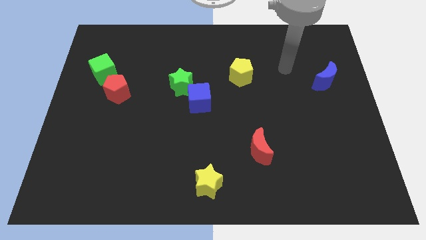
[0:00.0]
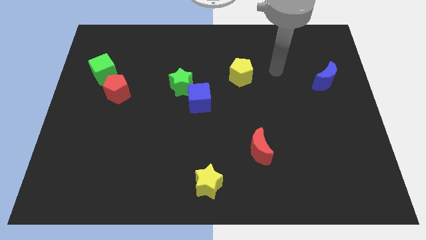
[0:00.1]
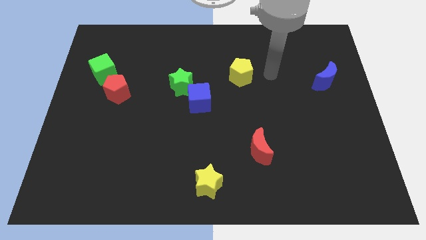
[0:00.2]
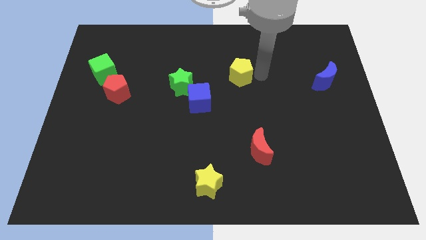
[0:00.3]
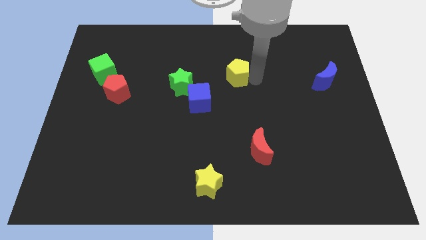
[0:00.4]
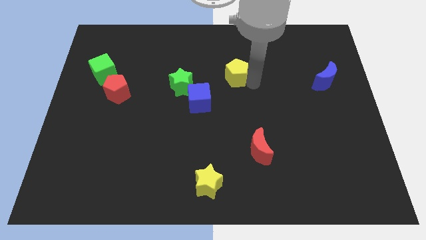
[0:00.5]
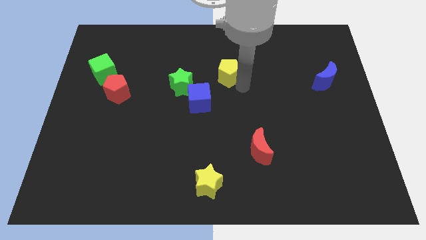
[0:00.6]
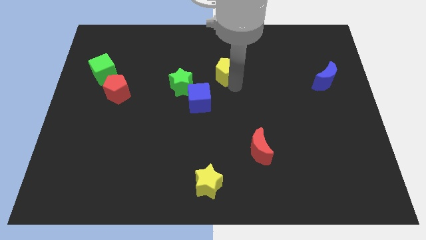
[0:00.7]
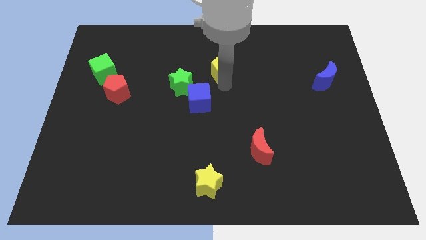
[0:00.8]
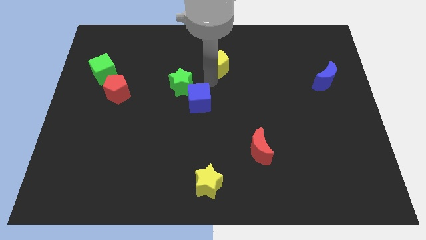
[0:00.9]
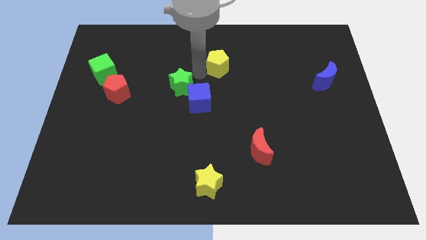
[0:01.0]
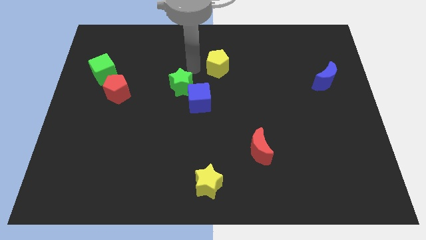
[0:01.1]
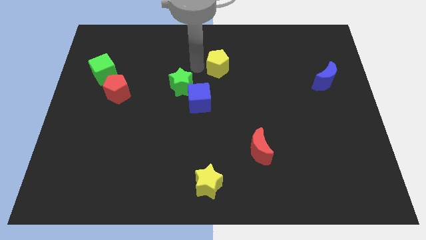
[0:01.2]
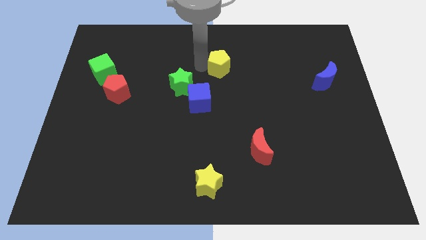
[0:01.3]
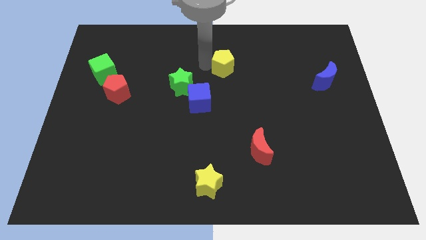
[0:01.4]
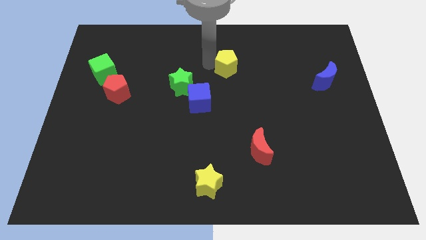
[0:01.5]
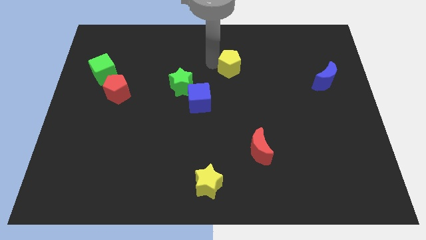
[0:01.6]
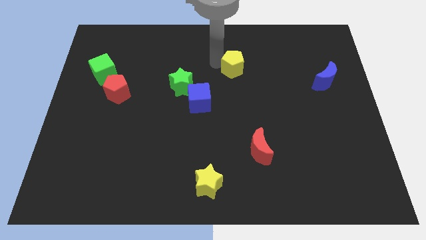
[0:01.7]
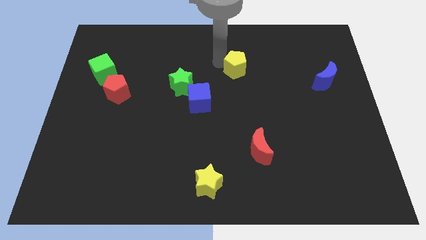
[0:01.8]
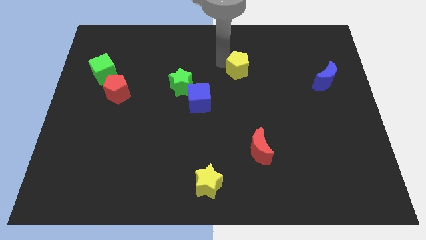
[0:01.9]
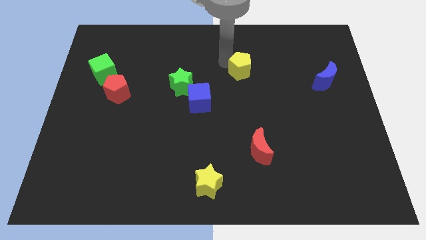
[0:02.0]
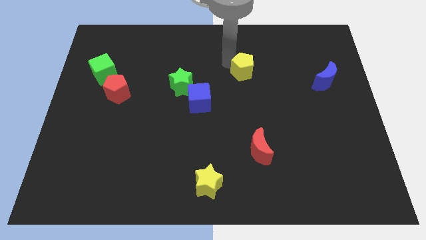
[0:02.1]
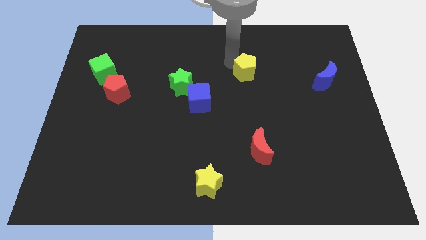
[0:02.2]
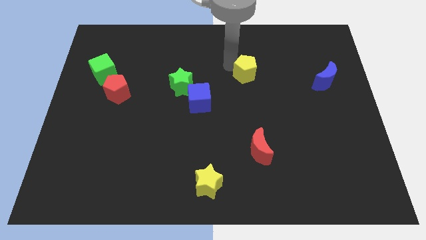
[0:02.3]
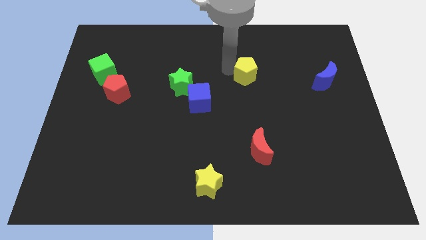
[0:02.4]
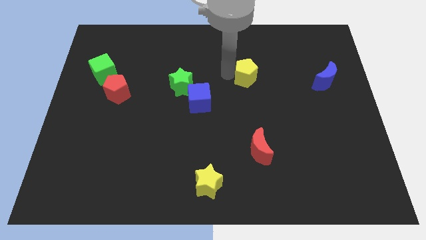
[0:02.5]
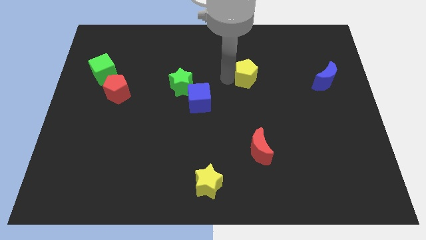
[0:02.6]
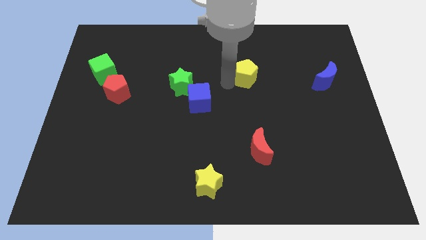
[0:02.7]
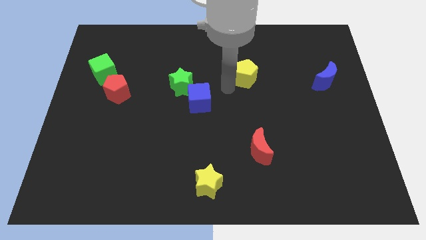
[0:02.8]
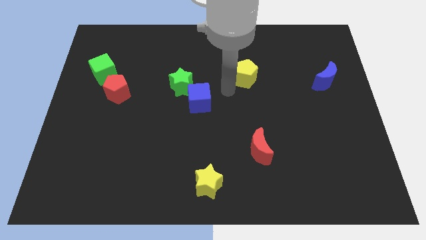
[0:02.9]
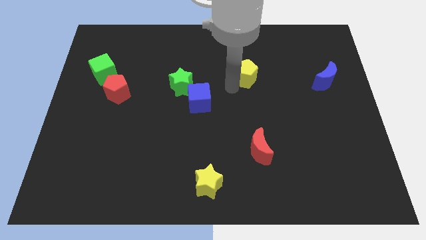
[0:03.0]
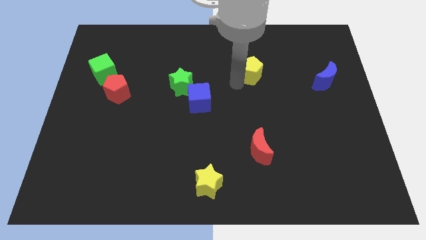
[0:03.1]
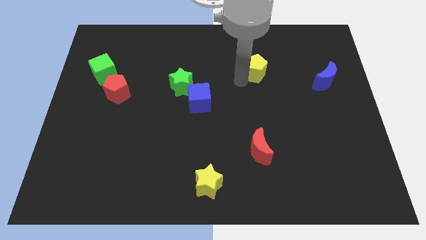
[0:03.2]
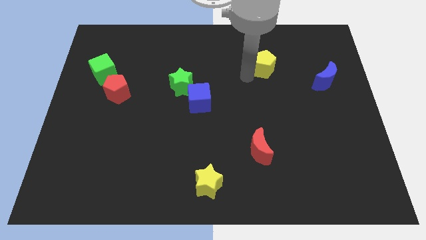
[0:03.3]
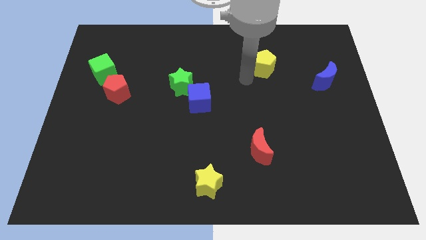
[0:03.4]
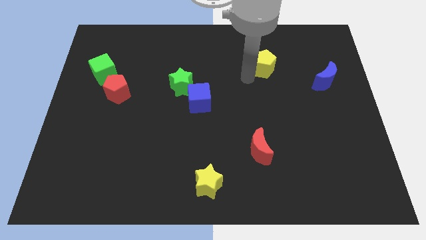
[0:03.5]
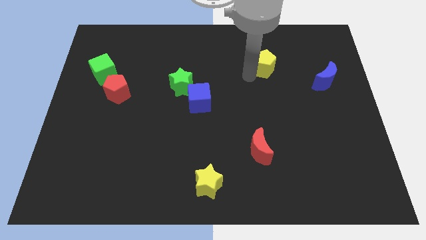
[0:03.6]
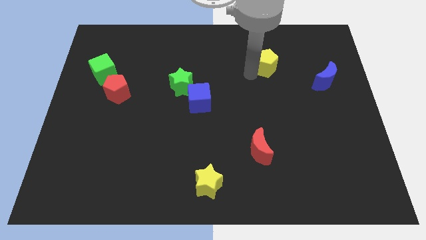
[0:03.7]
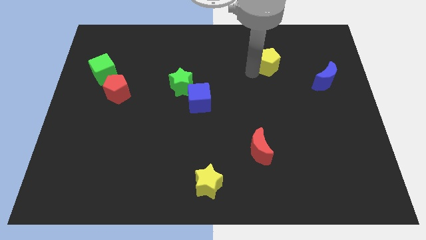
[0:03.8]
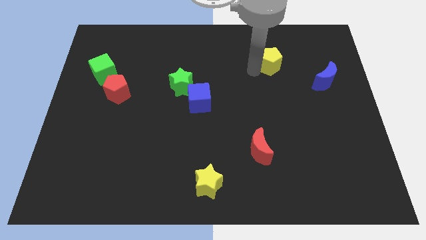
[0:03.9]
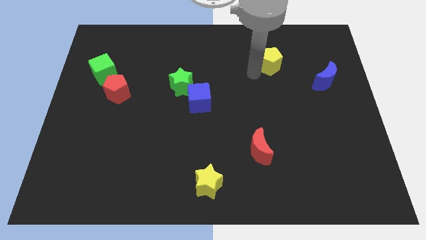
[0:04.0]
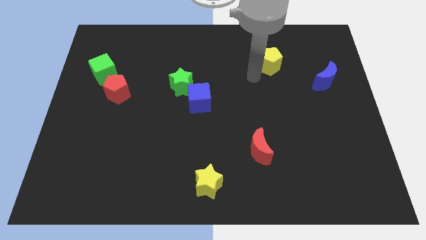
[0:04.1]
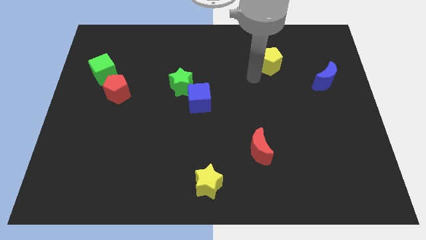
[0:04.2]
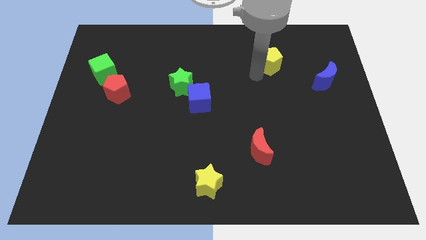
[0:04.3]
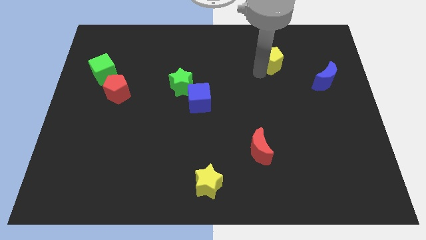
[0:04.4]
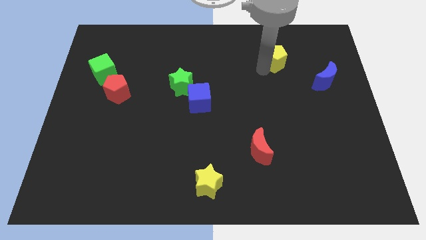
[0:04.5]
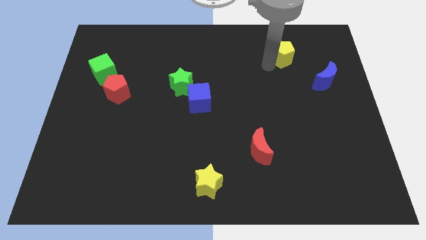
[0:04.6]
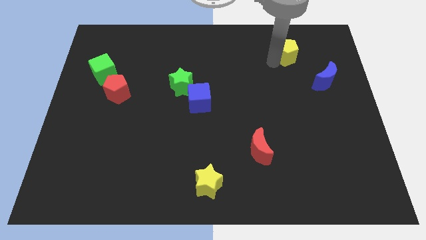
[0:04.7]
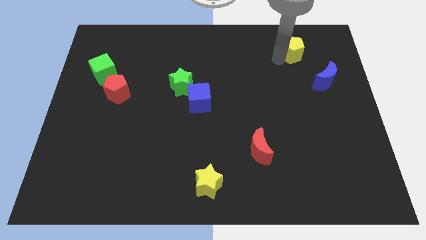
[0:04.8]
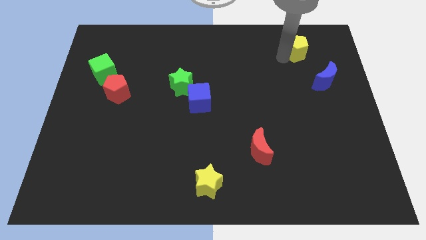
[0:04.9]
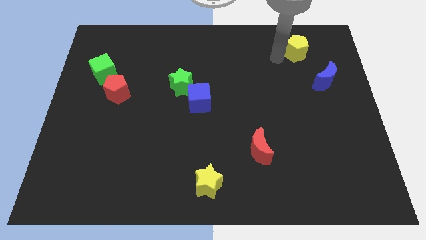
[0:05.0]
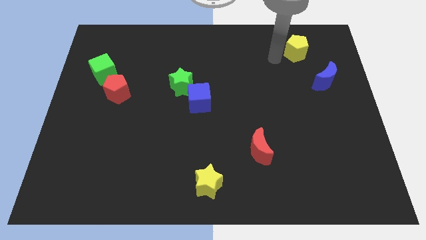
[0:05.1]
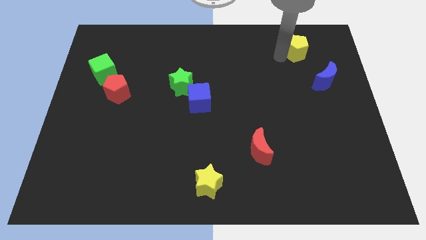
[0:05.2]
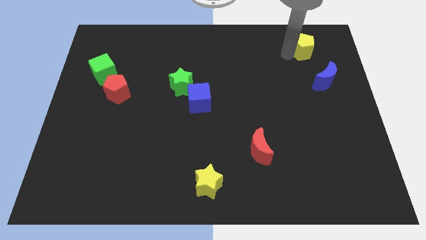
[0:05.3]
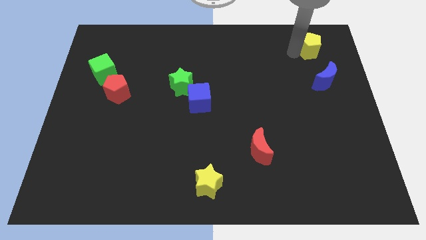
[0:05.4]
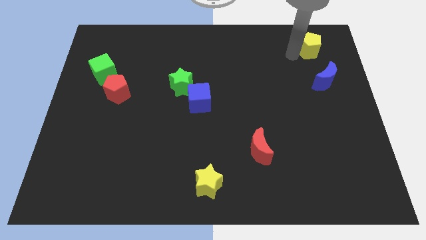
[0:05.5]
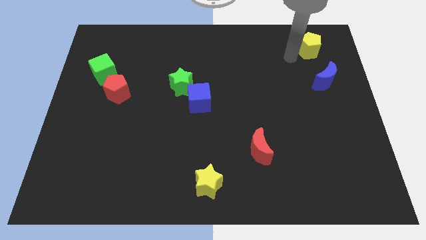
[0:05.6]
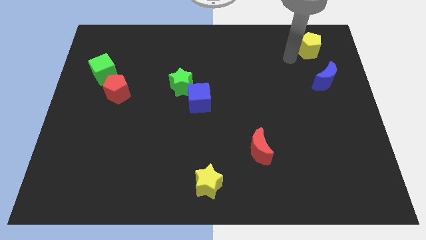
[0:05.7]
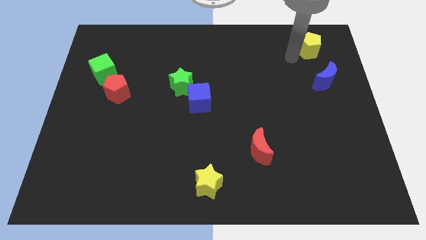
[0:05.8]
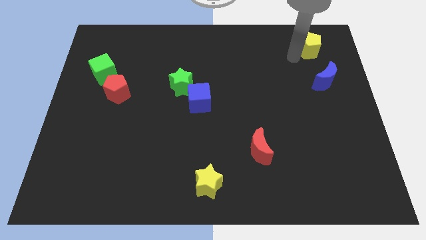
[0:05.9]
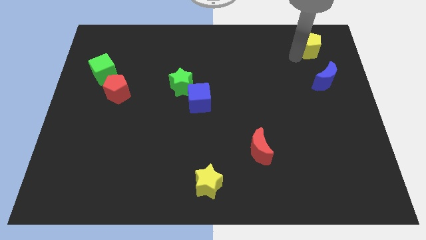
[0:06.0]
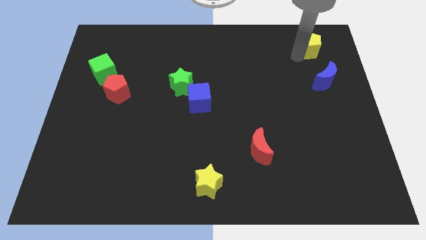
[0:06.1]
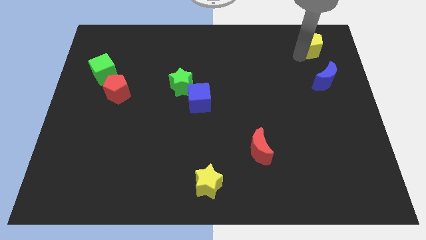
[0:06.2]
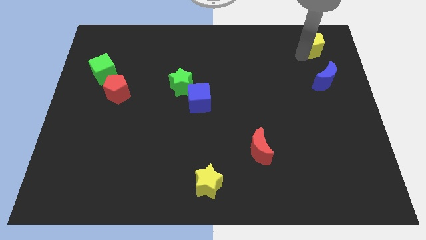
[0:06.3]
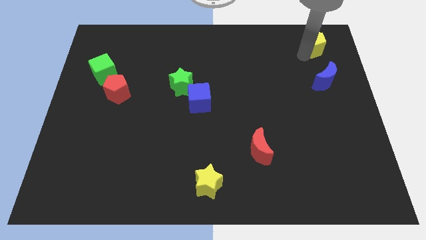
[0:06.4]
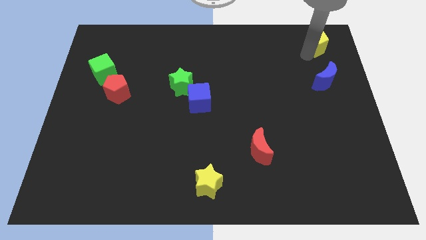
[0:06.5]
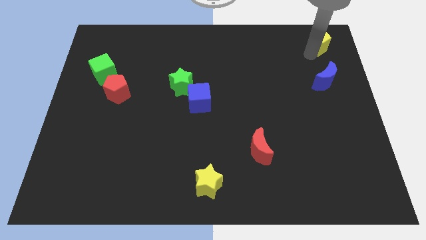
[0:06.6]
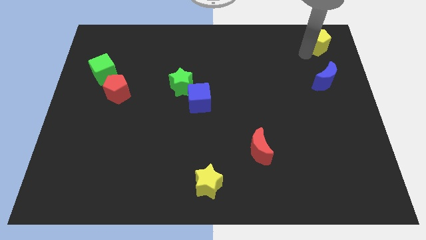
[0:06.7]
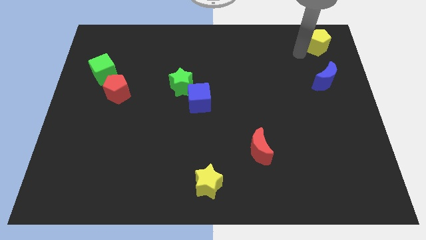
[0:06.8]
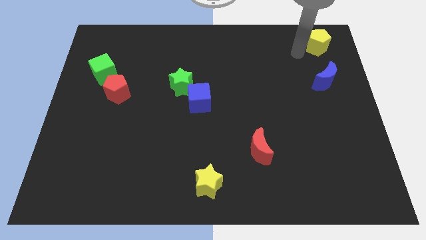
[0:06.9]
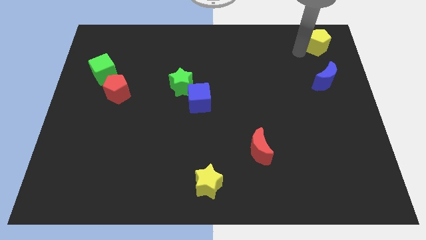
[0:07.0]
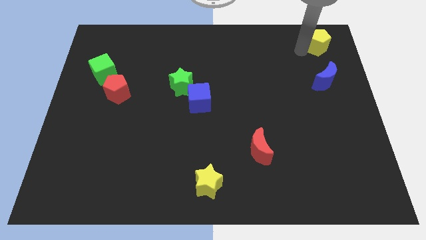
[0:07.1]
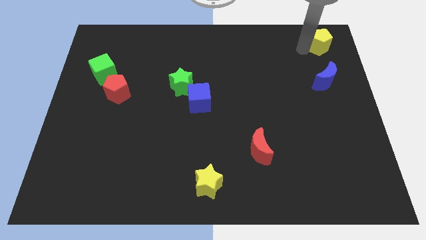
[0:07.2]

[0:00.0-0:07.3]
push the yellow pentagon to the upper right corner
